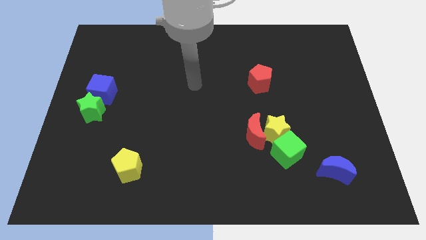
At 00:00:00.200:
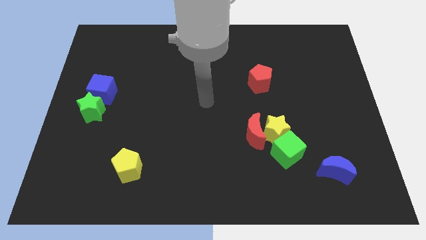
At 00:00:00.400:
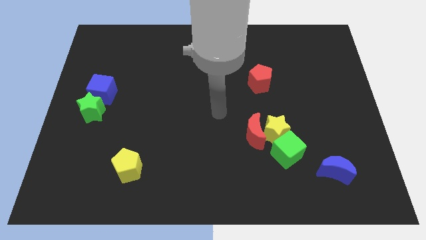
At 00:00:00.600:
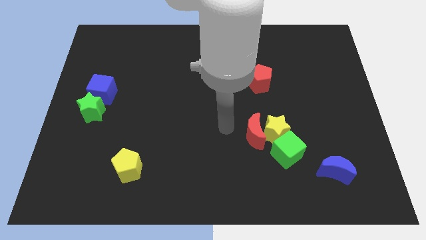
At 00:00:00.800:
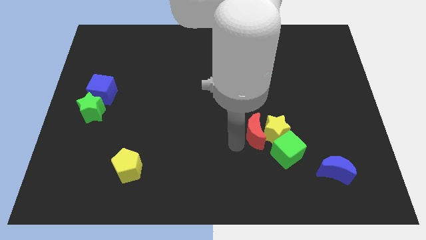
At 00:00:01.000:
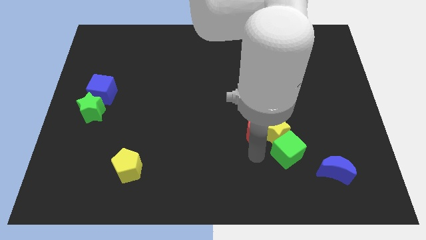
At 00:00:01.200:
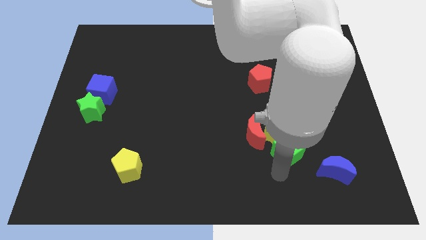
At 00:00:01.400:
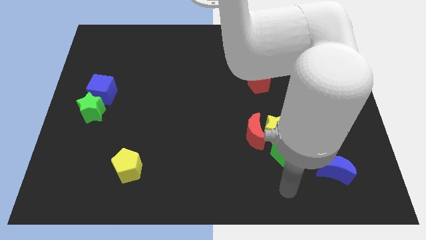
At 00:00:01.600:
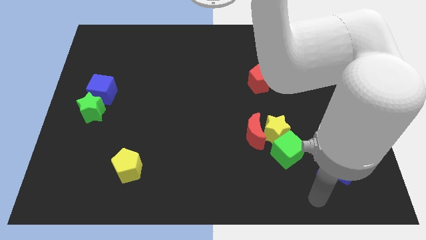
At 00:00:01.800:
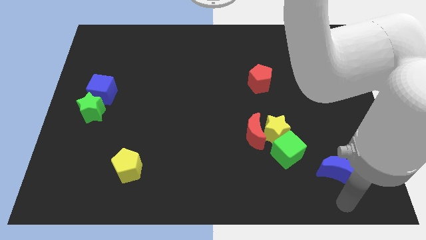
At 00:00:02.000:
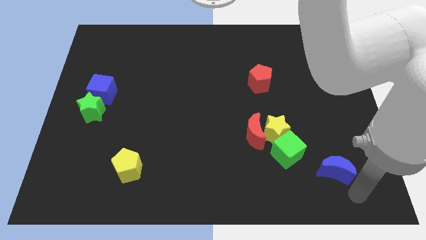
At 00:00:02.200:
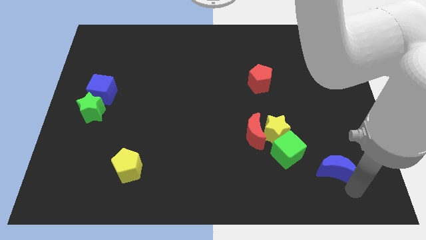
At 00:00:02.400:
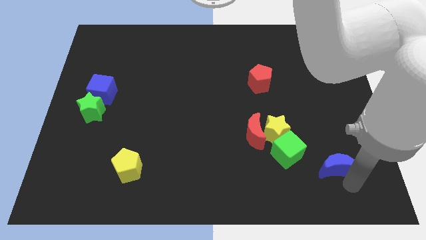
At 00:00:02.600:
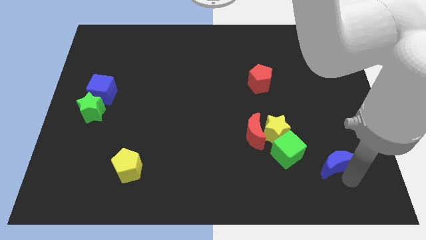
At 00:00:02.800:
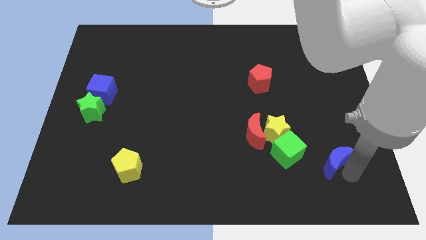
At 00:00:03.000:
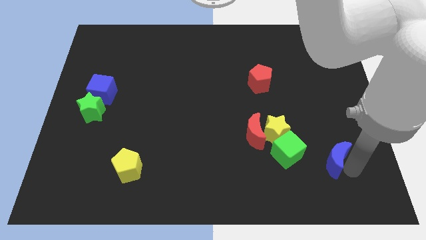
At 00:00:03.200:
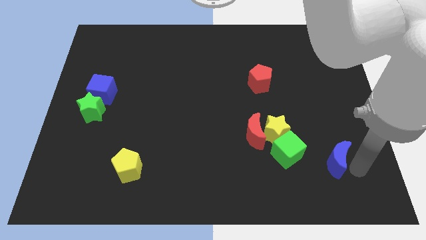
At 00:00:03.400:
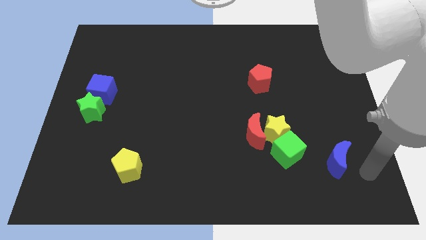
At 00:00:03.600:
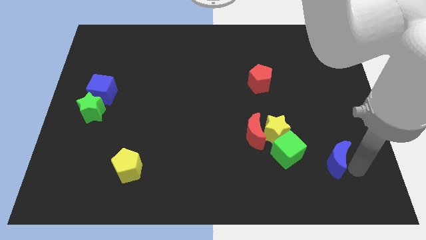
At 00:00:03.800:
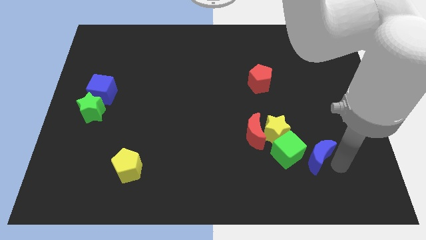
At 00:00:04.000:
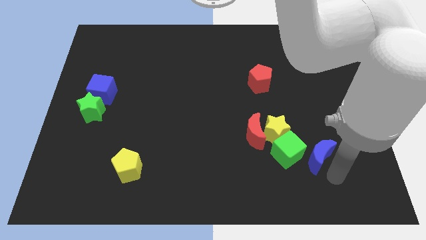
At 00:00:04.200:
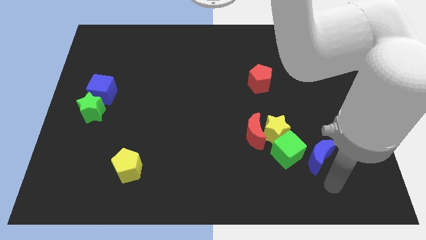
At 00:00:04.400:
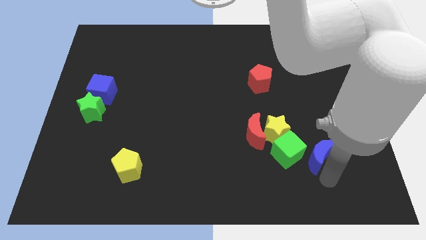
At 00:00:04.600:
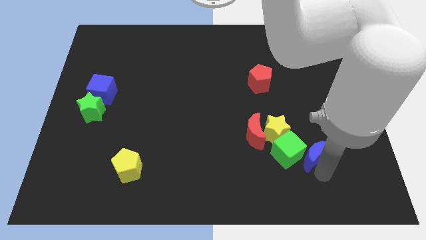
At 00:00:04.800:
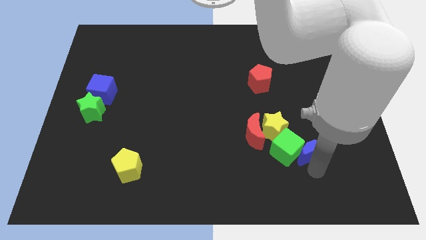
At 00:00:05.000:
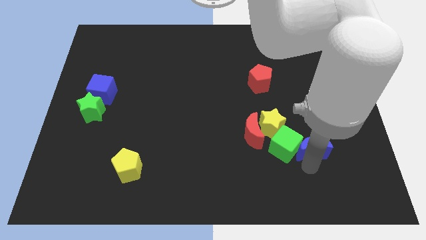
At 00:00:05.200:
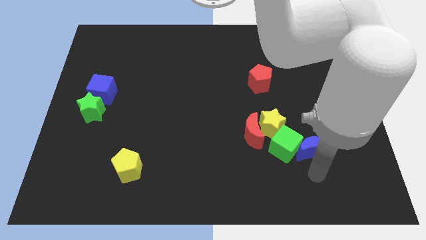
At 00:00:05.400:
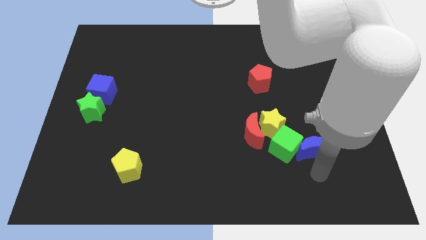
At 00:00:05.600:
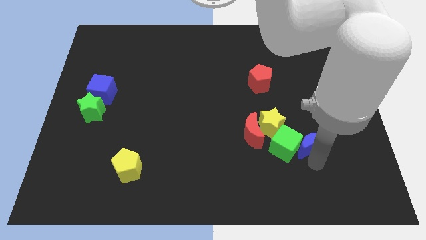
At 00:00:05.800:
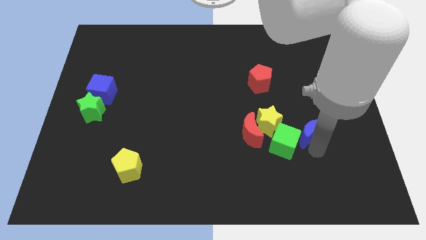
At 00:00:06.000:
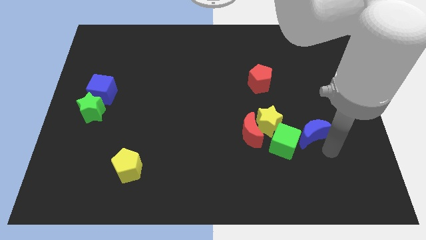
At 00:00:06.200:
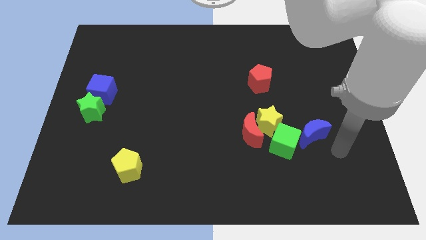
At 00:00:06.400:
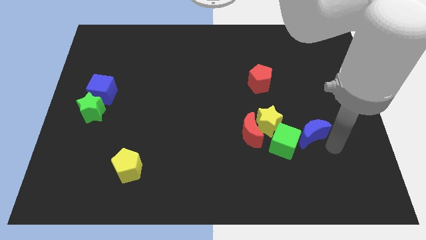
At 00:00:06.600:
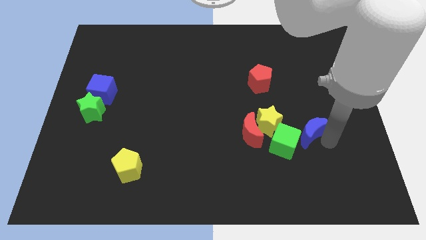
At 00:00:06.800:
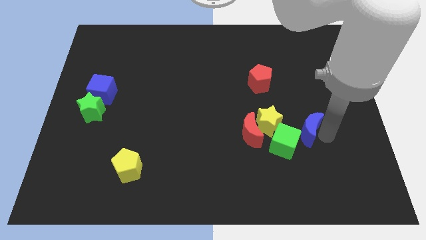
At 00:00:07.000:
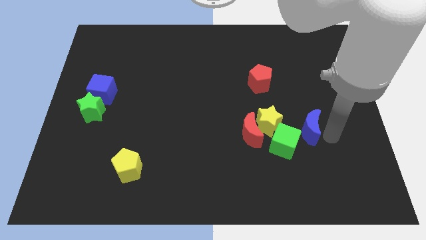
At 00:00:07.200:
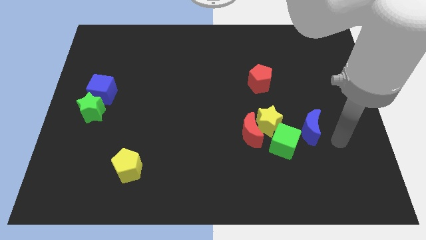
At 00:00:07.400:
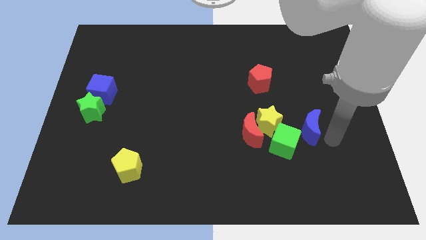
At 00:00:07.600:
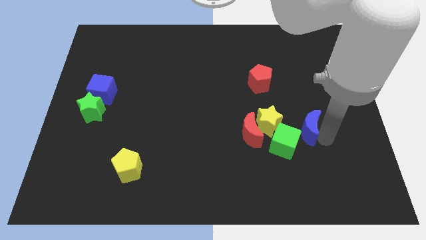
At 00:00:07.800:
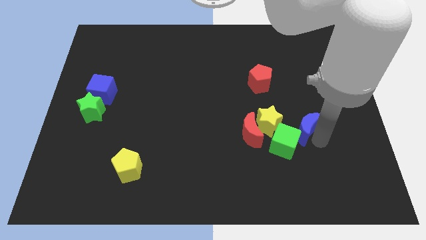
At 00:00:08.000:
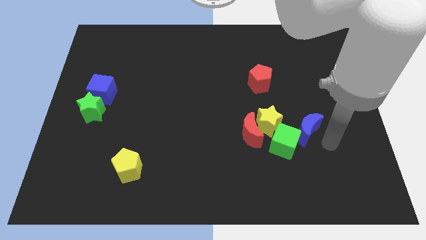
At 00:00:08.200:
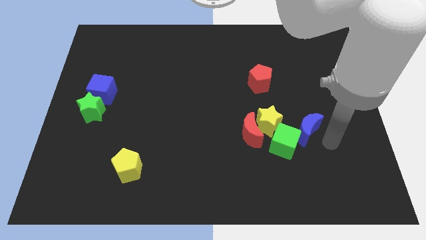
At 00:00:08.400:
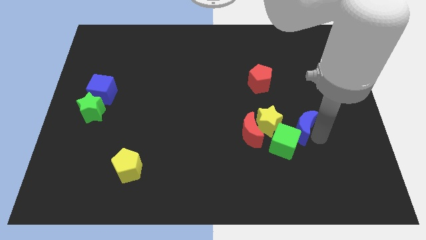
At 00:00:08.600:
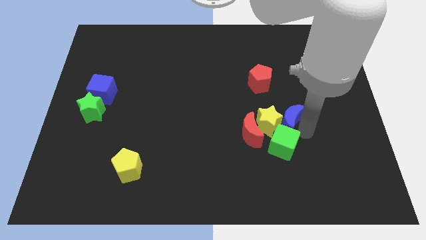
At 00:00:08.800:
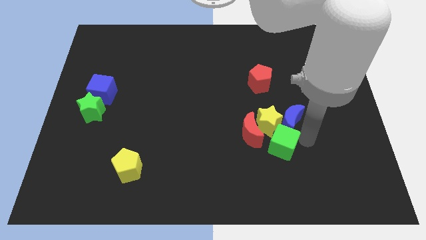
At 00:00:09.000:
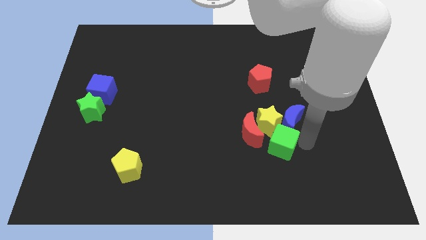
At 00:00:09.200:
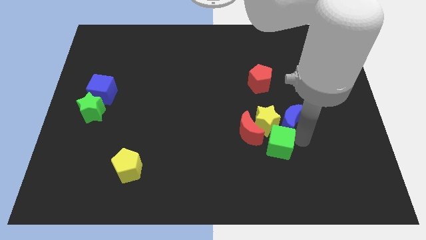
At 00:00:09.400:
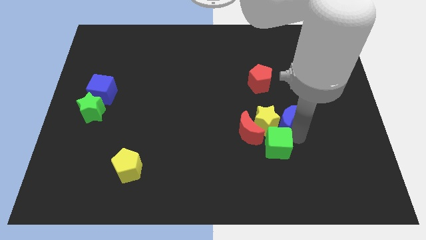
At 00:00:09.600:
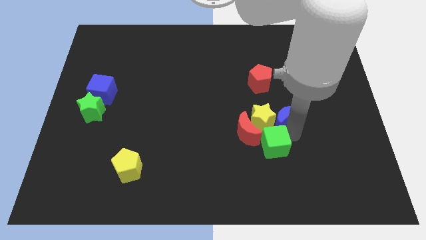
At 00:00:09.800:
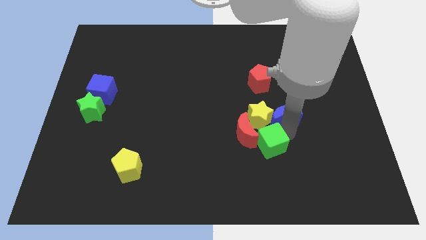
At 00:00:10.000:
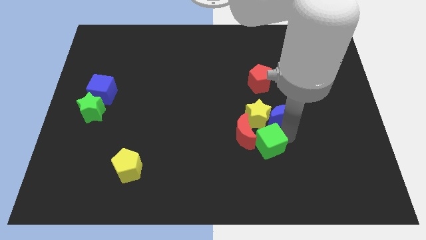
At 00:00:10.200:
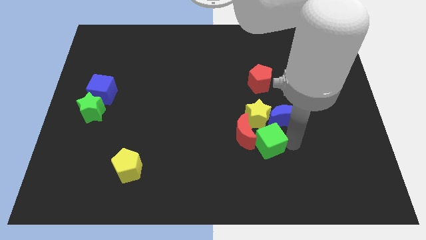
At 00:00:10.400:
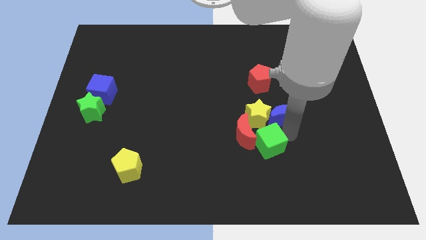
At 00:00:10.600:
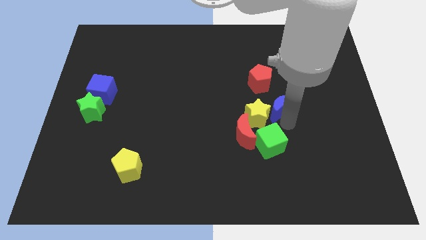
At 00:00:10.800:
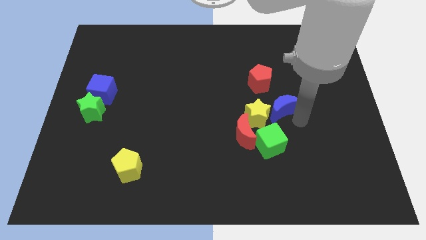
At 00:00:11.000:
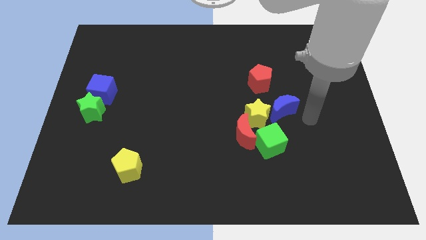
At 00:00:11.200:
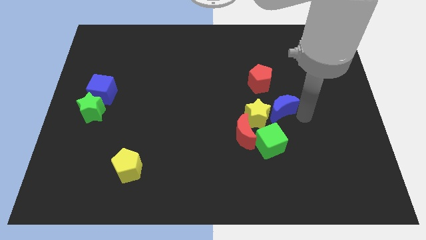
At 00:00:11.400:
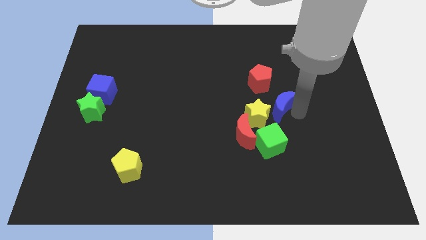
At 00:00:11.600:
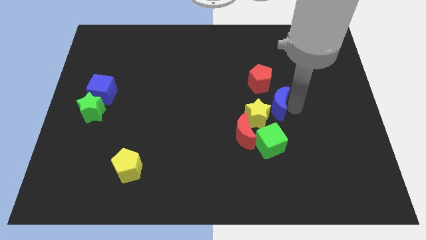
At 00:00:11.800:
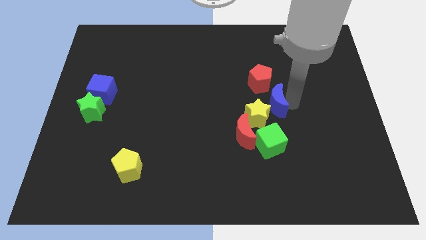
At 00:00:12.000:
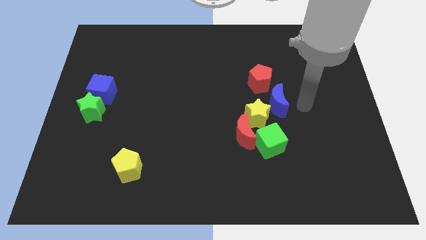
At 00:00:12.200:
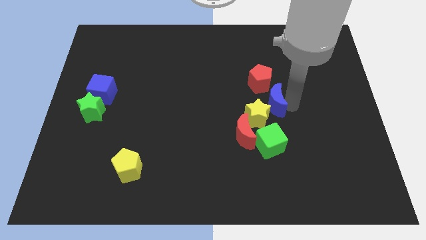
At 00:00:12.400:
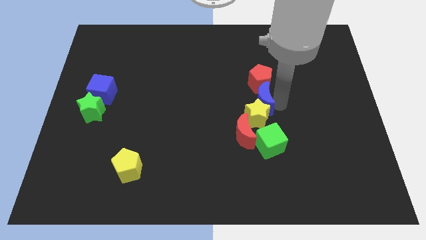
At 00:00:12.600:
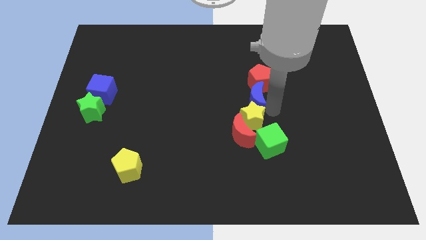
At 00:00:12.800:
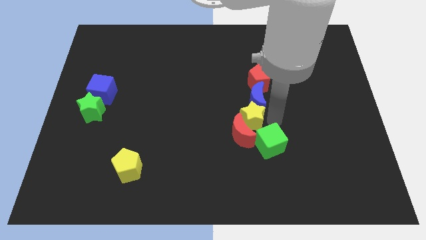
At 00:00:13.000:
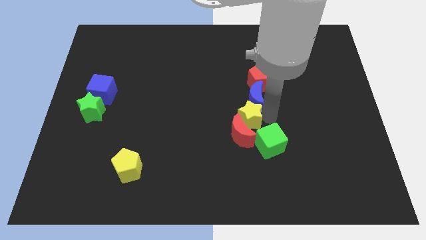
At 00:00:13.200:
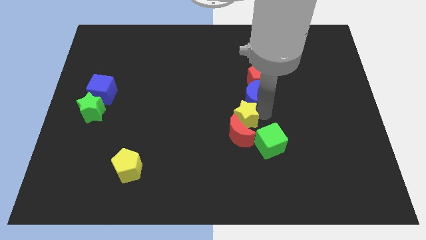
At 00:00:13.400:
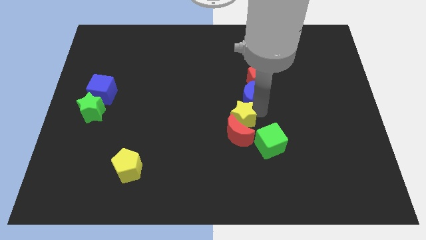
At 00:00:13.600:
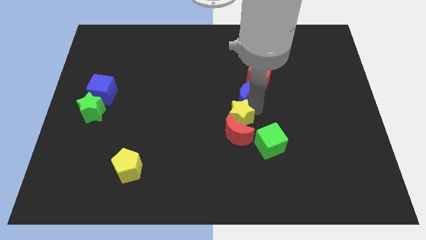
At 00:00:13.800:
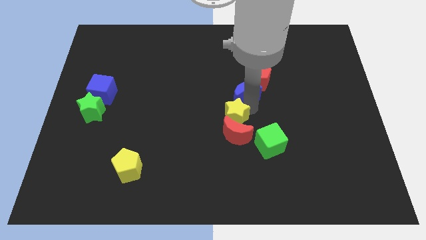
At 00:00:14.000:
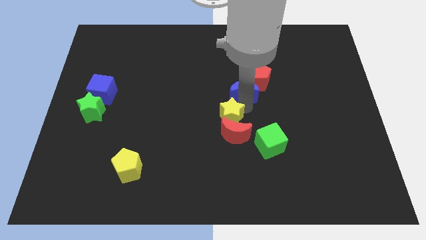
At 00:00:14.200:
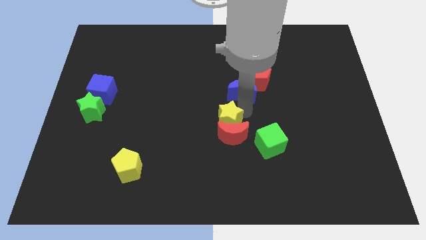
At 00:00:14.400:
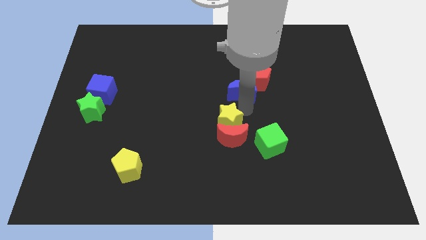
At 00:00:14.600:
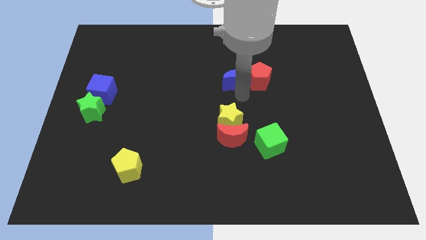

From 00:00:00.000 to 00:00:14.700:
move the blue moon to the top left side of the red pentagon
